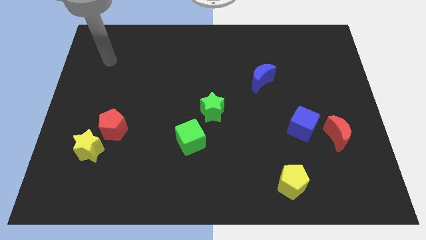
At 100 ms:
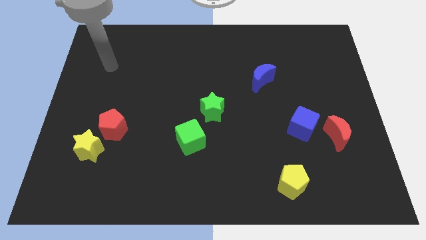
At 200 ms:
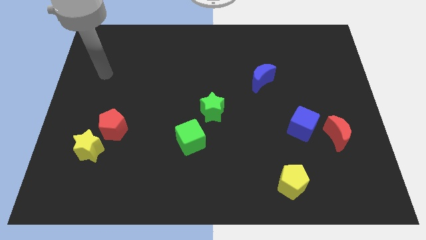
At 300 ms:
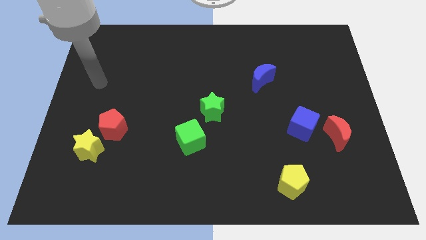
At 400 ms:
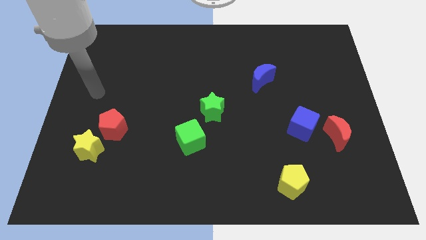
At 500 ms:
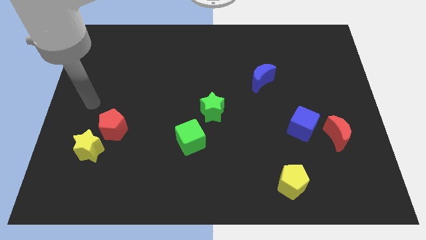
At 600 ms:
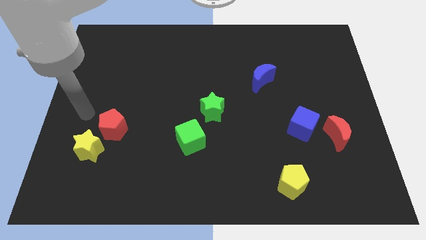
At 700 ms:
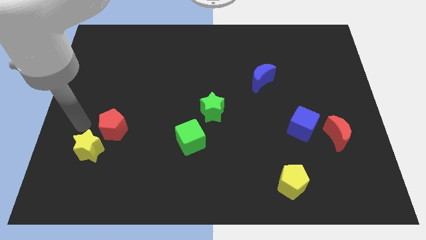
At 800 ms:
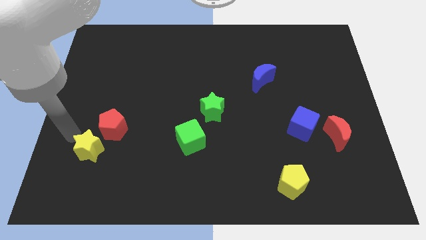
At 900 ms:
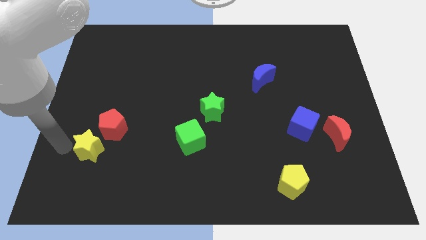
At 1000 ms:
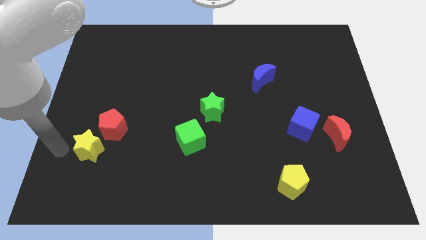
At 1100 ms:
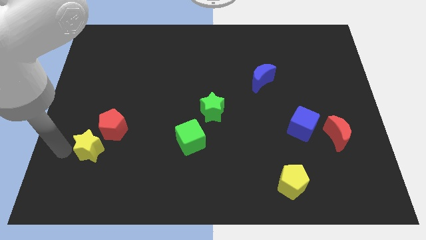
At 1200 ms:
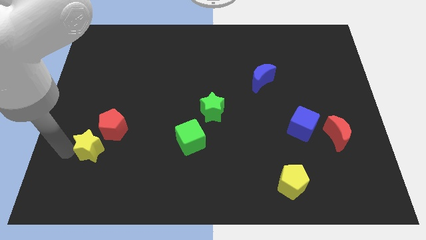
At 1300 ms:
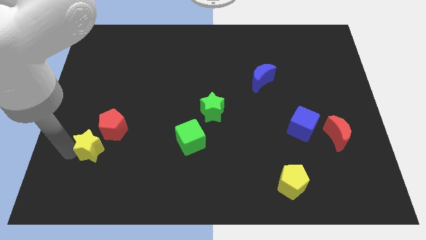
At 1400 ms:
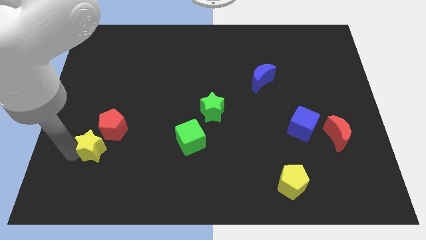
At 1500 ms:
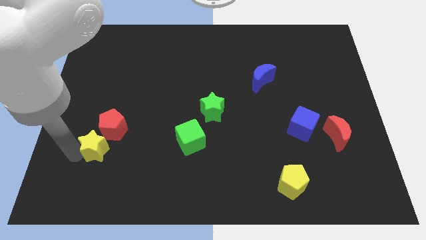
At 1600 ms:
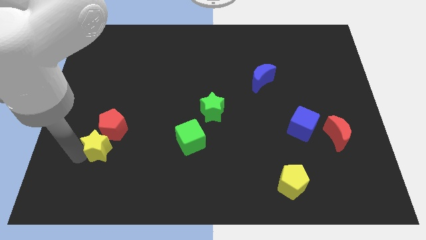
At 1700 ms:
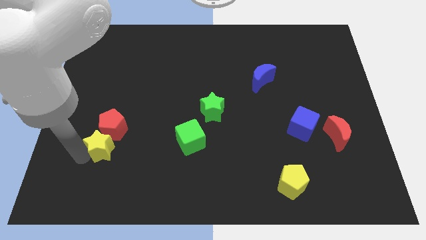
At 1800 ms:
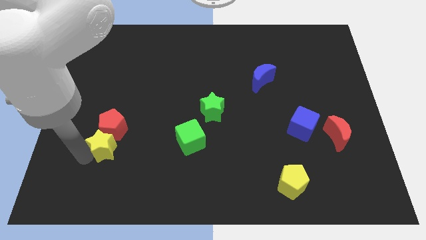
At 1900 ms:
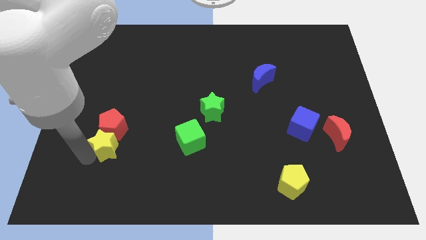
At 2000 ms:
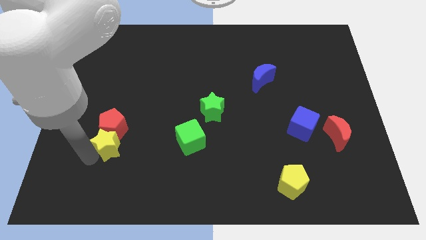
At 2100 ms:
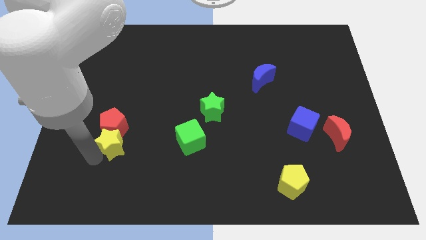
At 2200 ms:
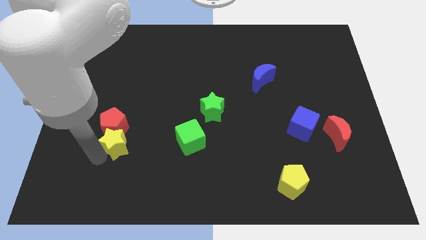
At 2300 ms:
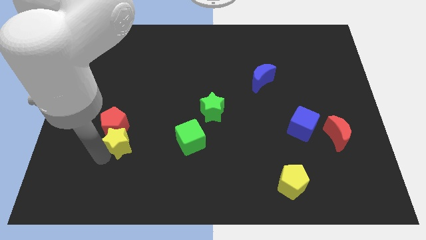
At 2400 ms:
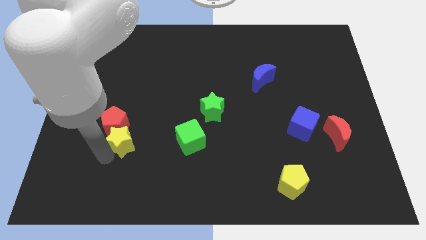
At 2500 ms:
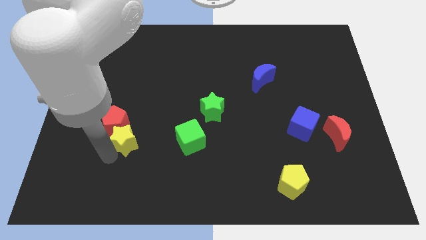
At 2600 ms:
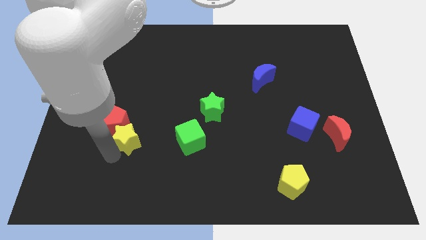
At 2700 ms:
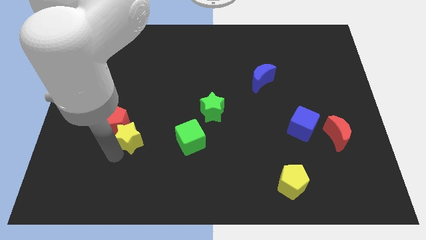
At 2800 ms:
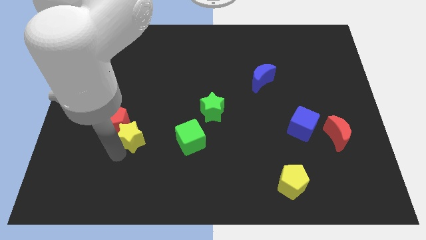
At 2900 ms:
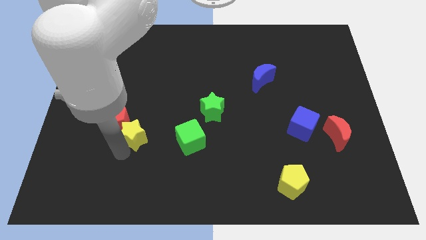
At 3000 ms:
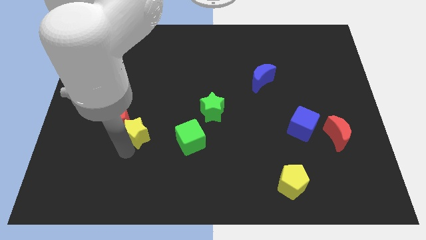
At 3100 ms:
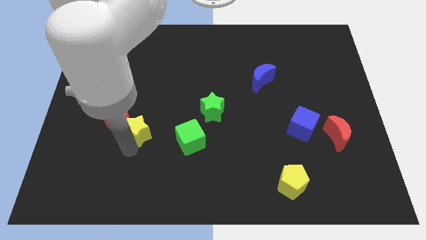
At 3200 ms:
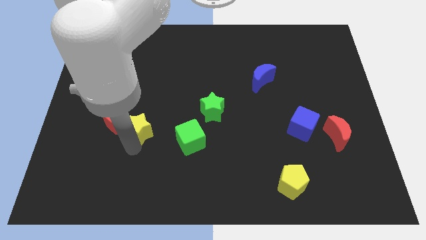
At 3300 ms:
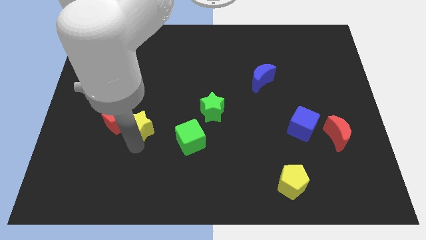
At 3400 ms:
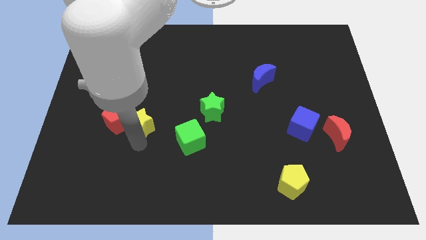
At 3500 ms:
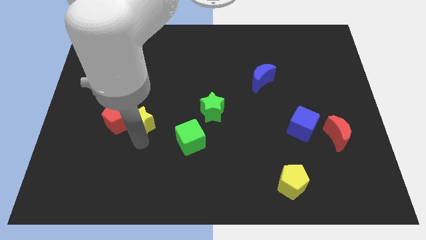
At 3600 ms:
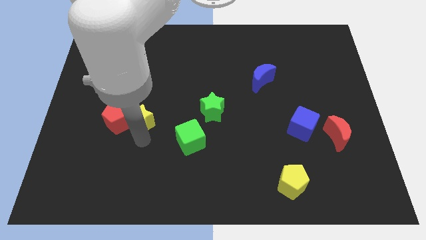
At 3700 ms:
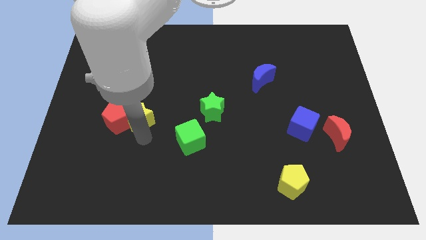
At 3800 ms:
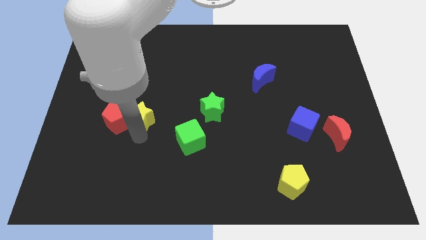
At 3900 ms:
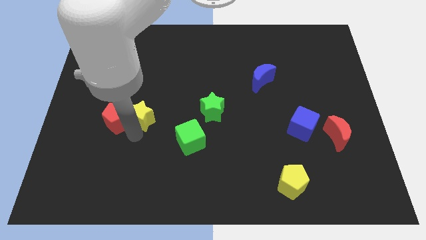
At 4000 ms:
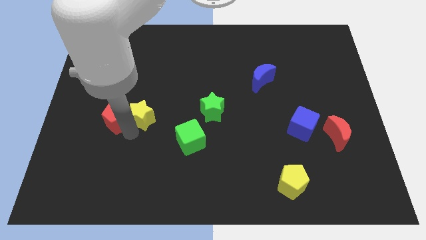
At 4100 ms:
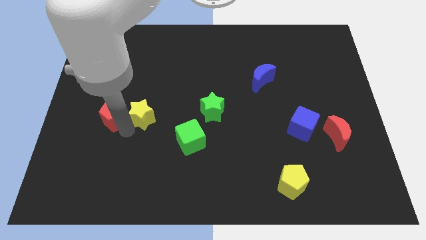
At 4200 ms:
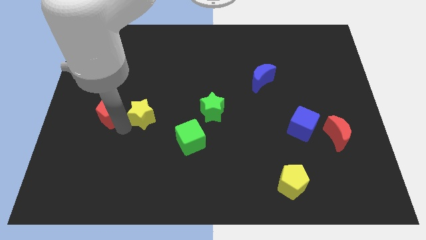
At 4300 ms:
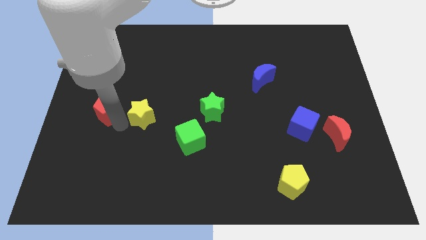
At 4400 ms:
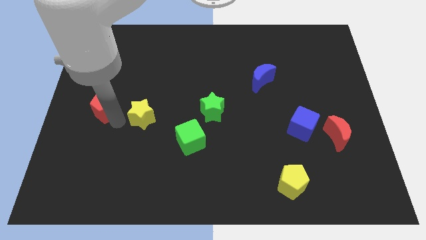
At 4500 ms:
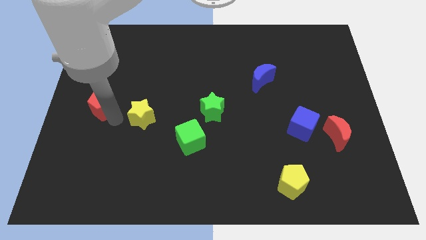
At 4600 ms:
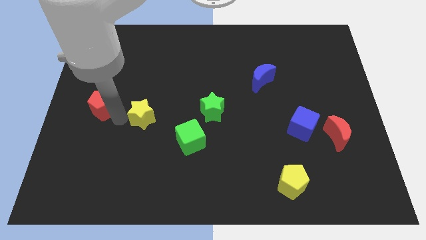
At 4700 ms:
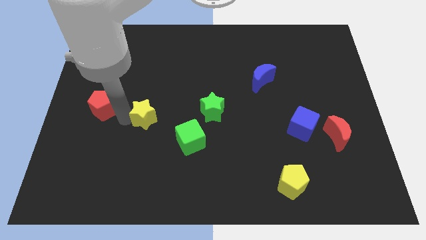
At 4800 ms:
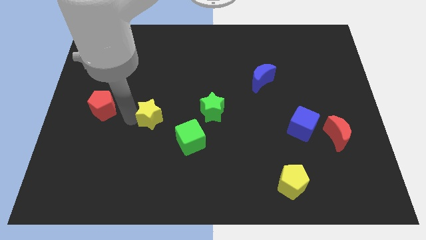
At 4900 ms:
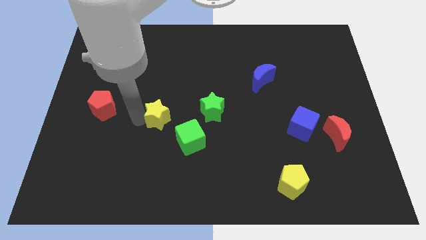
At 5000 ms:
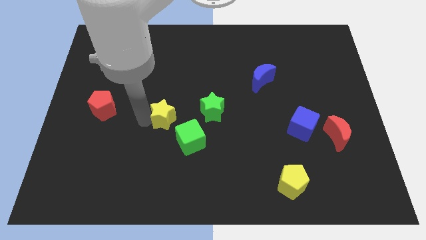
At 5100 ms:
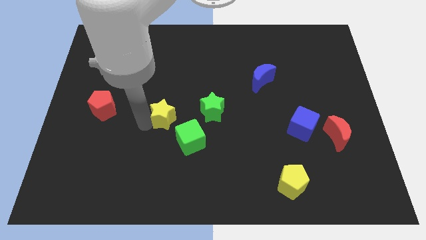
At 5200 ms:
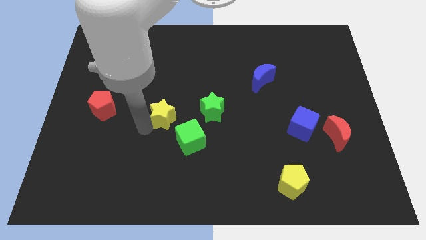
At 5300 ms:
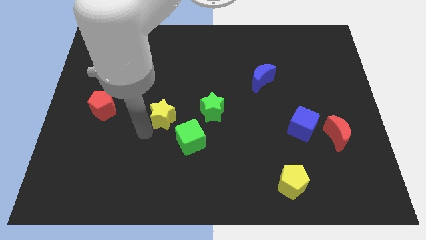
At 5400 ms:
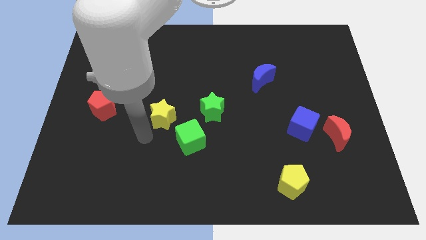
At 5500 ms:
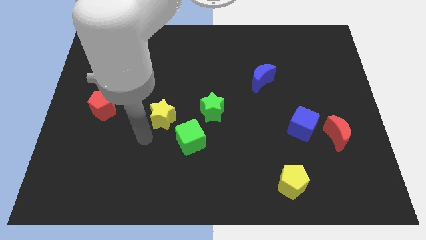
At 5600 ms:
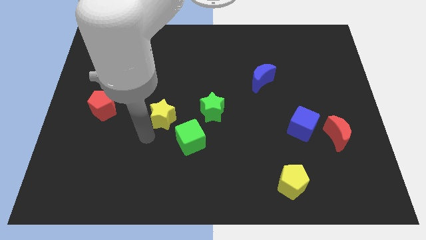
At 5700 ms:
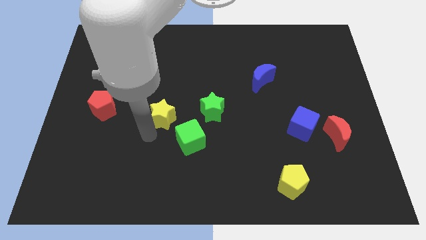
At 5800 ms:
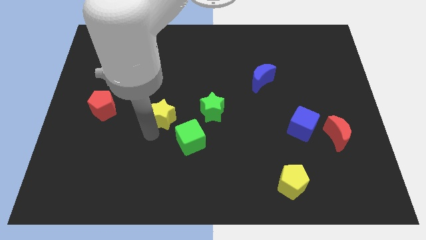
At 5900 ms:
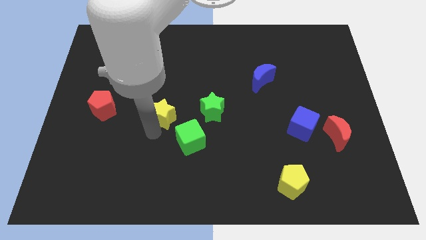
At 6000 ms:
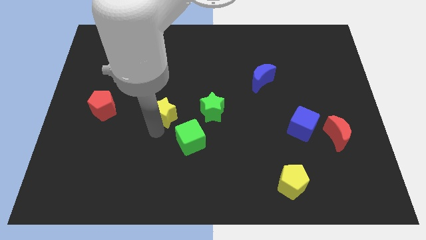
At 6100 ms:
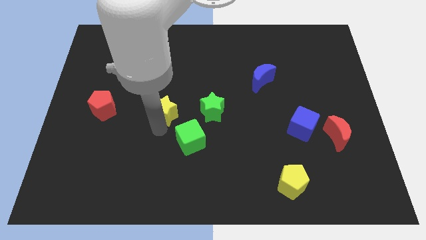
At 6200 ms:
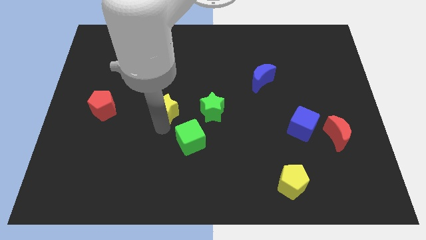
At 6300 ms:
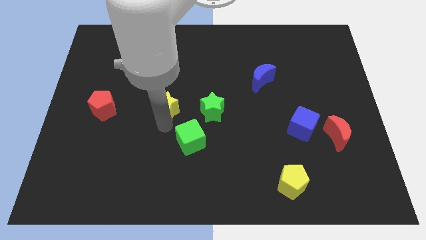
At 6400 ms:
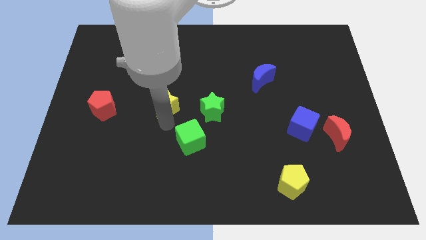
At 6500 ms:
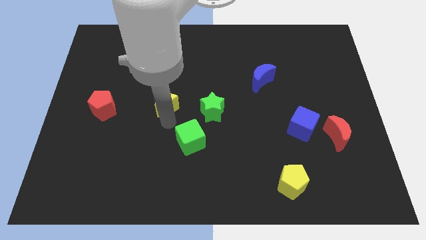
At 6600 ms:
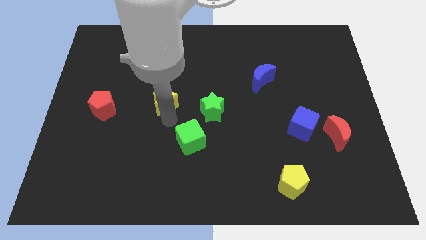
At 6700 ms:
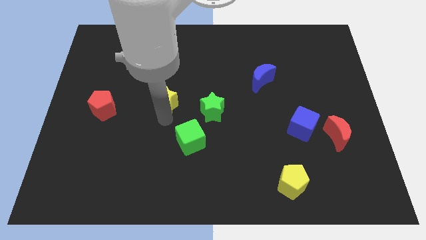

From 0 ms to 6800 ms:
move the yellow star up and right diagonally

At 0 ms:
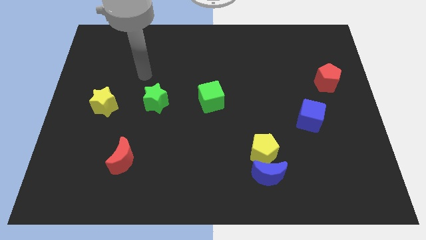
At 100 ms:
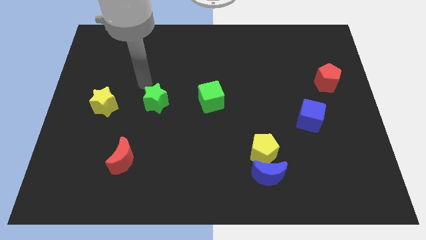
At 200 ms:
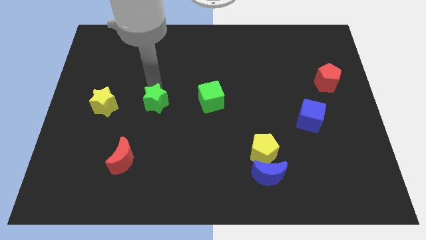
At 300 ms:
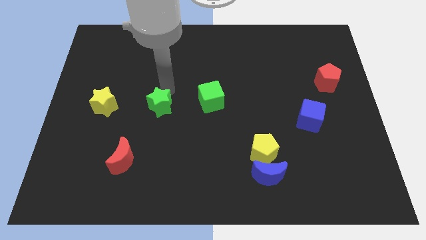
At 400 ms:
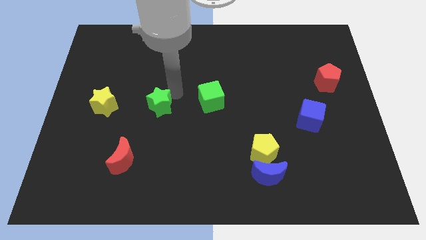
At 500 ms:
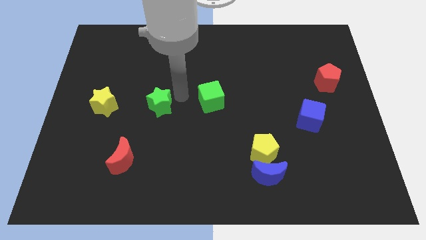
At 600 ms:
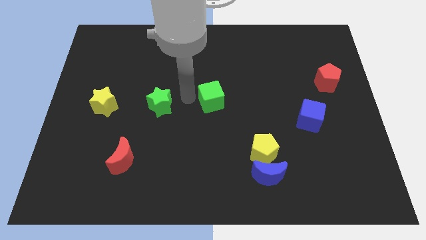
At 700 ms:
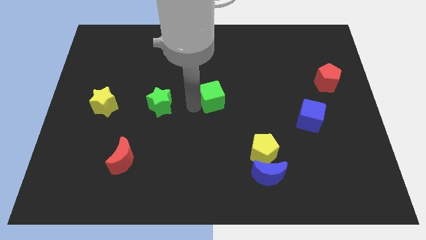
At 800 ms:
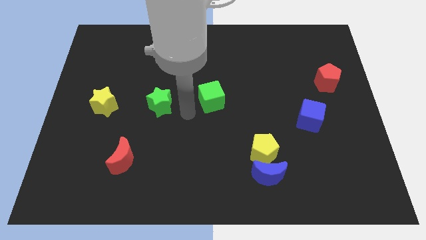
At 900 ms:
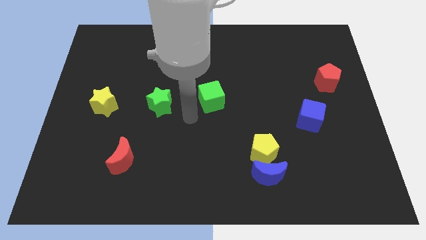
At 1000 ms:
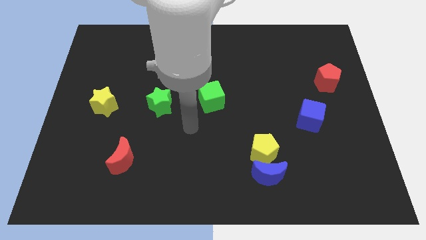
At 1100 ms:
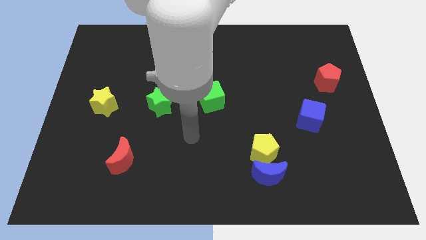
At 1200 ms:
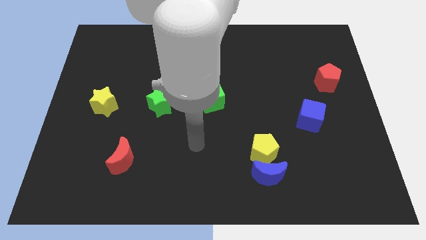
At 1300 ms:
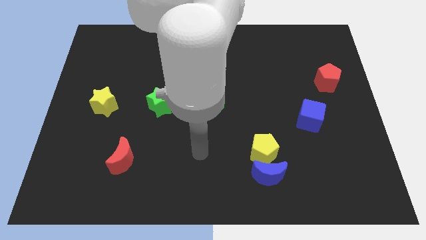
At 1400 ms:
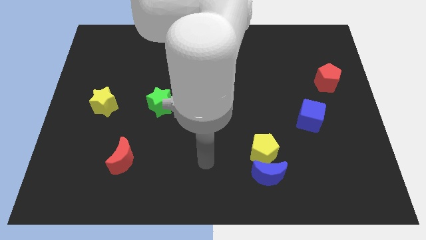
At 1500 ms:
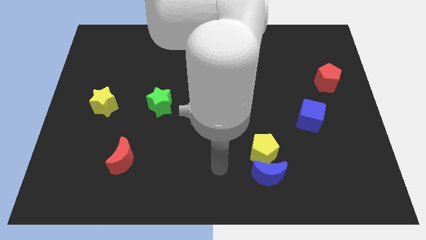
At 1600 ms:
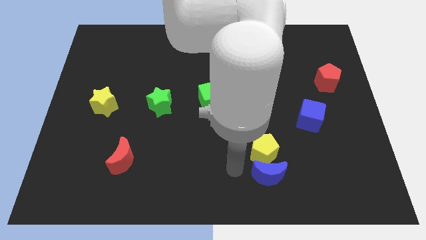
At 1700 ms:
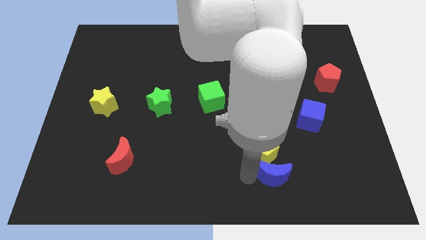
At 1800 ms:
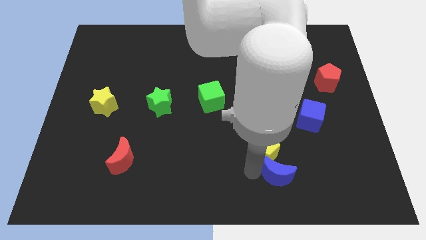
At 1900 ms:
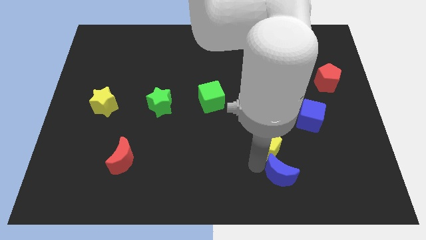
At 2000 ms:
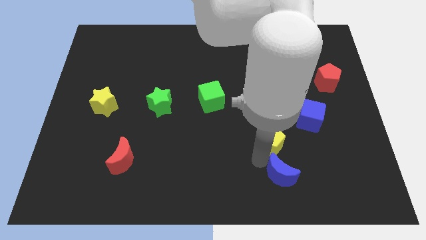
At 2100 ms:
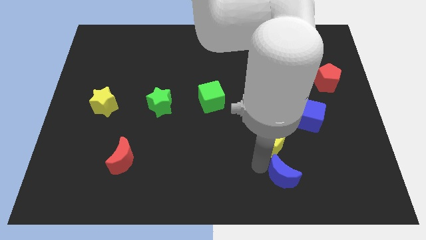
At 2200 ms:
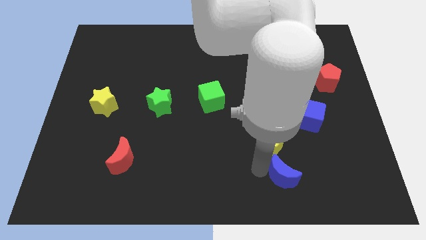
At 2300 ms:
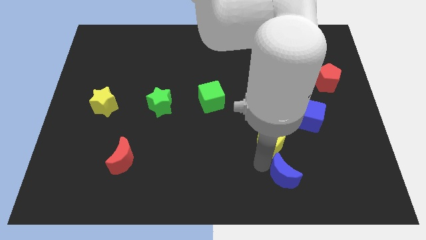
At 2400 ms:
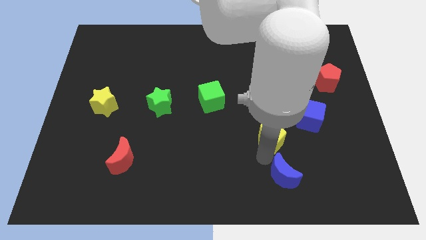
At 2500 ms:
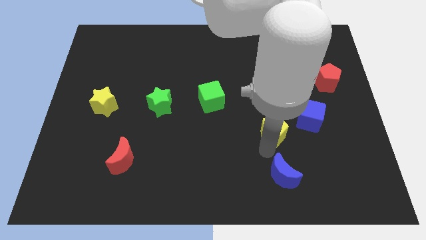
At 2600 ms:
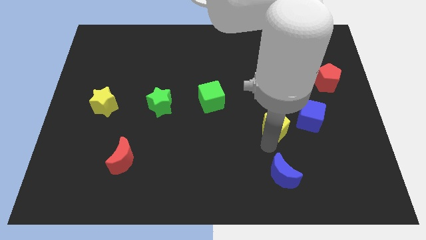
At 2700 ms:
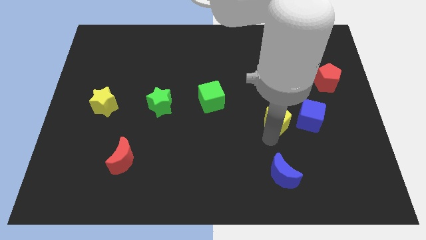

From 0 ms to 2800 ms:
slightly slide the yellow pentagon diagonally up and right
